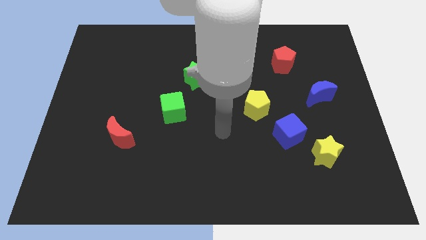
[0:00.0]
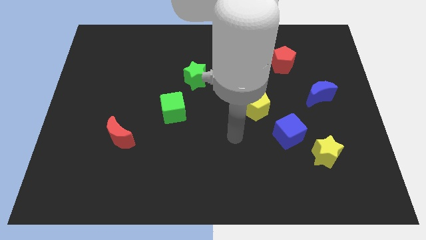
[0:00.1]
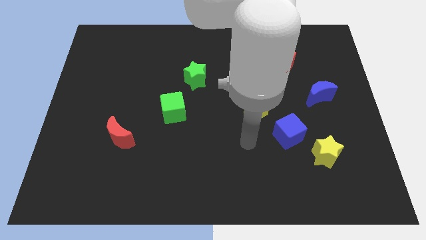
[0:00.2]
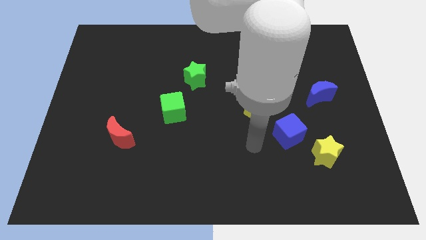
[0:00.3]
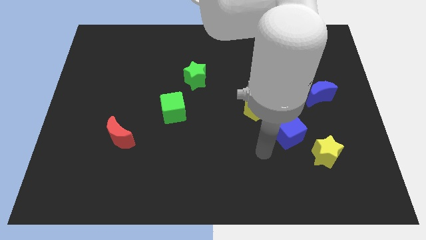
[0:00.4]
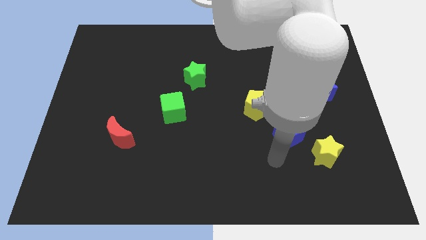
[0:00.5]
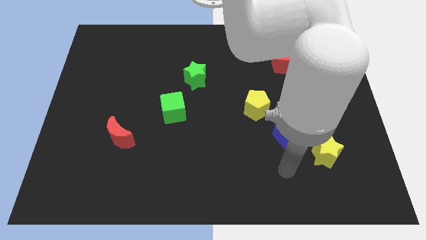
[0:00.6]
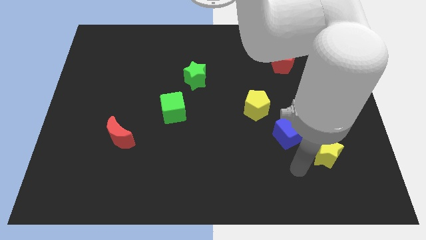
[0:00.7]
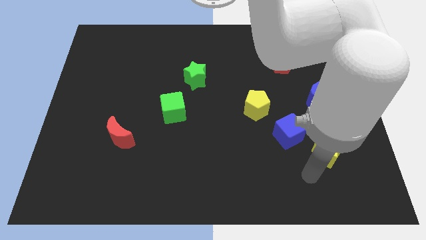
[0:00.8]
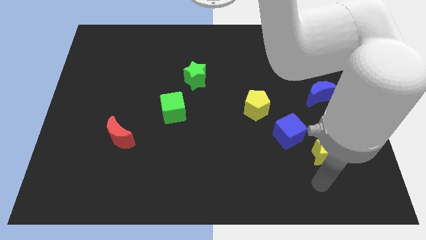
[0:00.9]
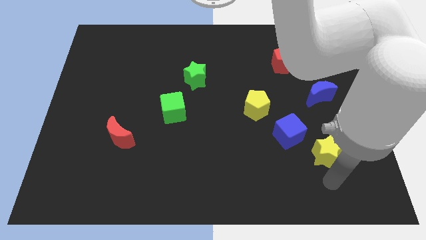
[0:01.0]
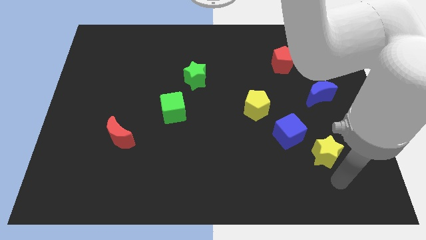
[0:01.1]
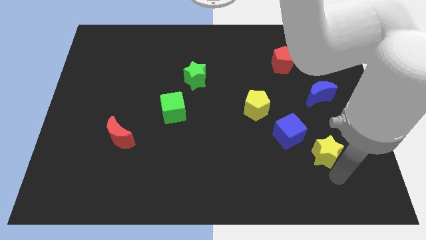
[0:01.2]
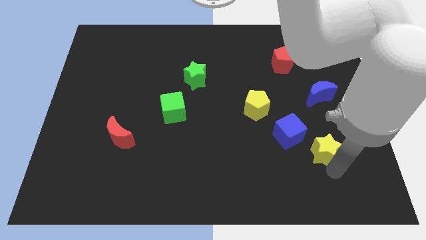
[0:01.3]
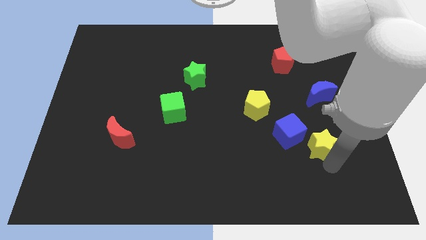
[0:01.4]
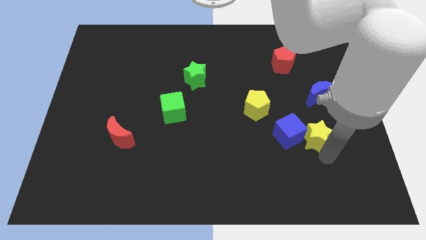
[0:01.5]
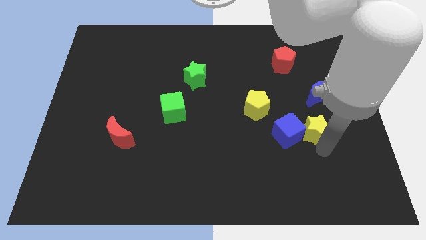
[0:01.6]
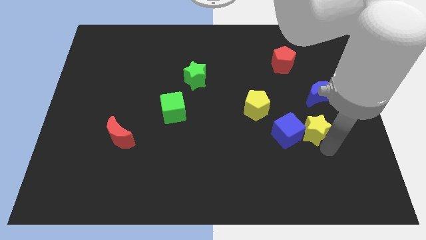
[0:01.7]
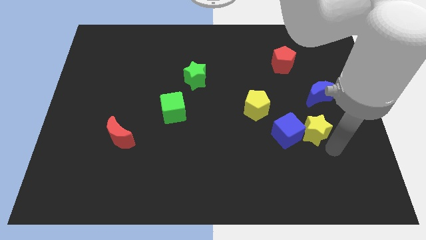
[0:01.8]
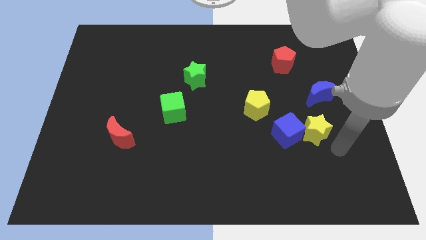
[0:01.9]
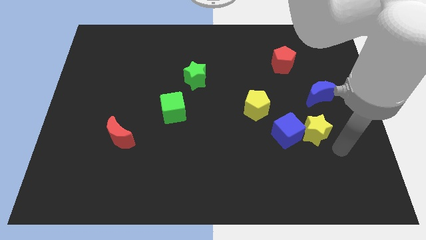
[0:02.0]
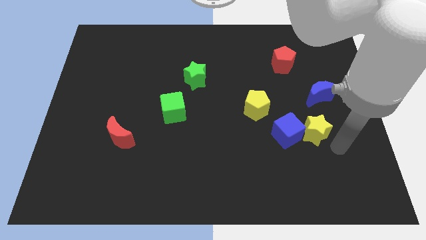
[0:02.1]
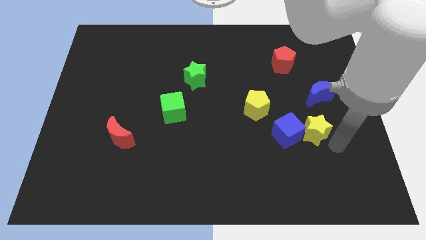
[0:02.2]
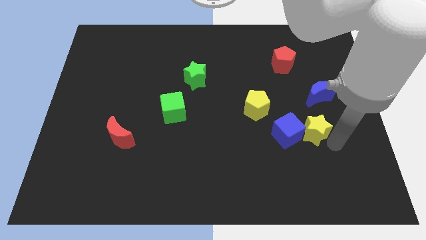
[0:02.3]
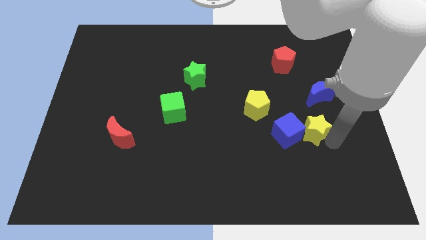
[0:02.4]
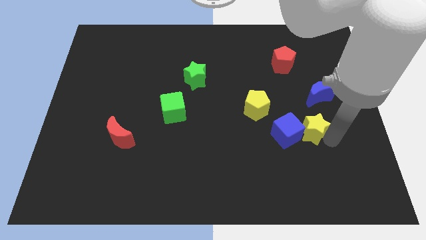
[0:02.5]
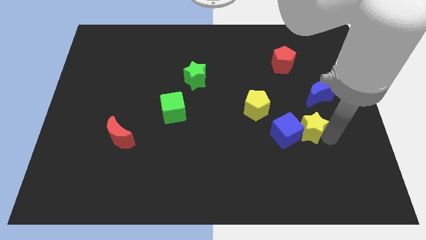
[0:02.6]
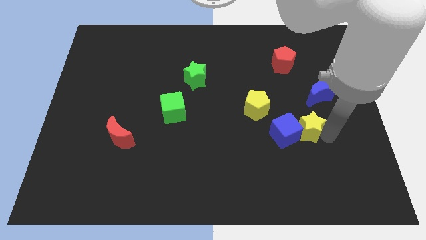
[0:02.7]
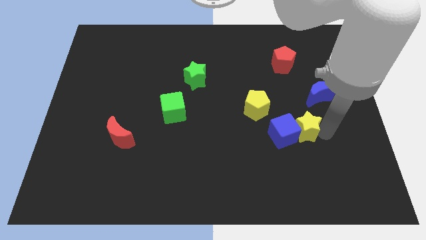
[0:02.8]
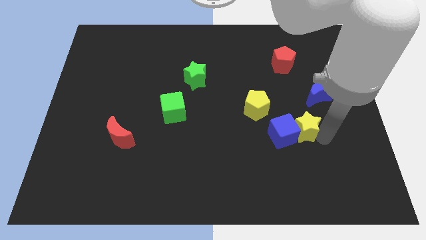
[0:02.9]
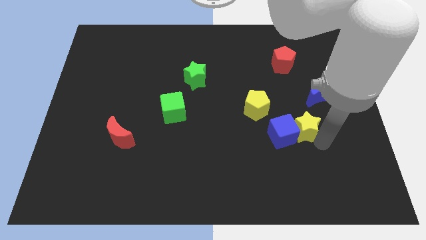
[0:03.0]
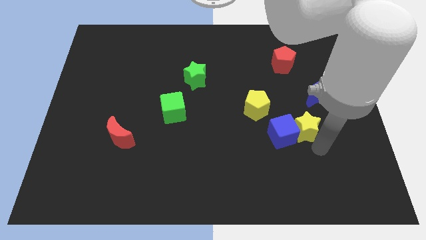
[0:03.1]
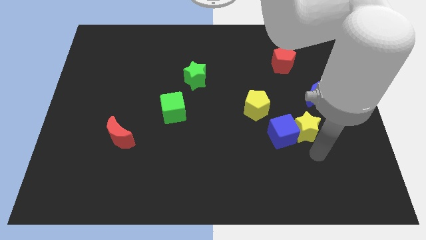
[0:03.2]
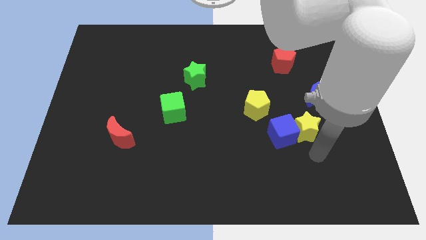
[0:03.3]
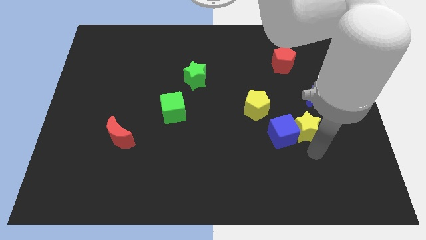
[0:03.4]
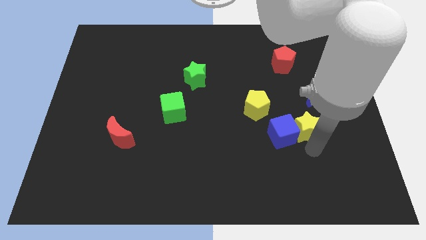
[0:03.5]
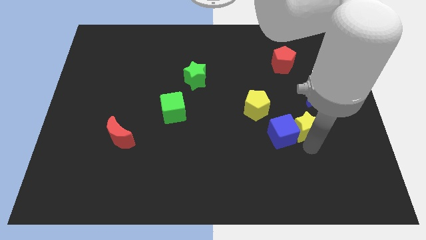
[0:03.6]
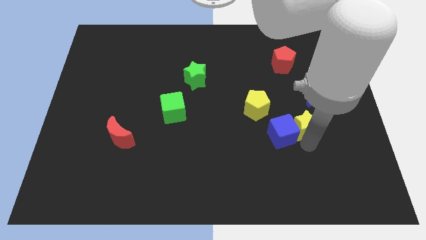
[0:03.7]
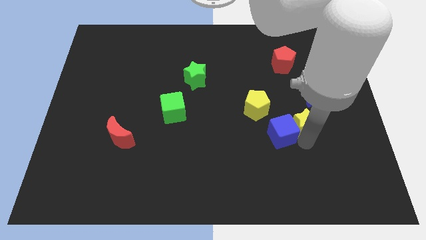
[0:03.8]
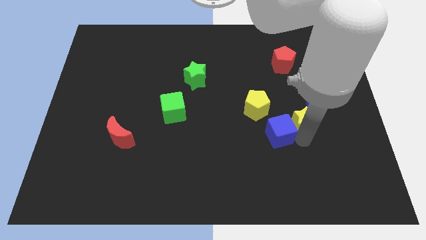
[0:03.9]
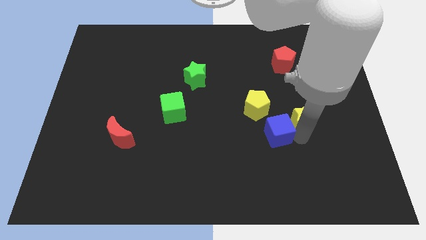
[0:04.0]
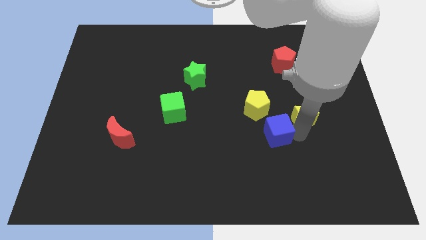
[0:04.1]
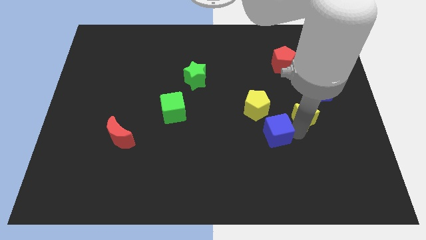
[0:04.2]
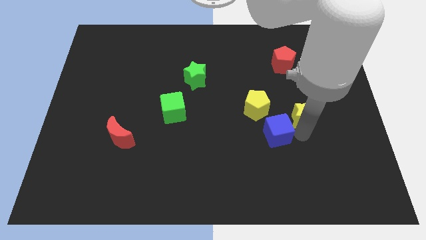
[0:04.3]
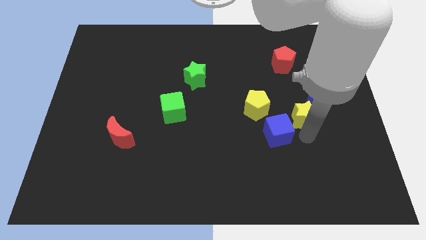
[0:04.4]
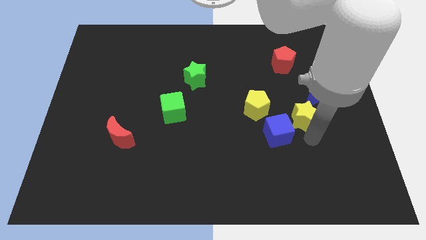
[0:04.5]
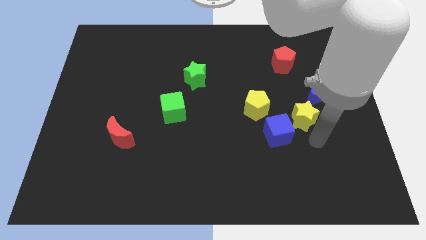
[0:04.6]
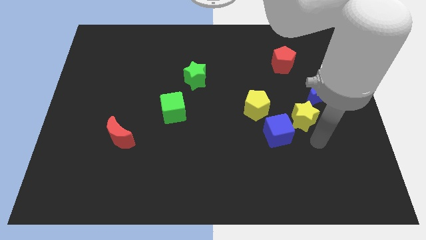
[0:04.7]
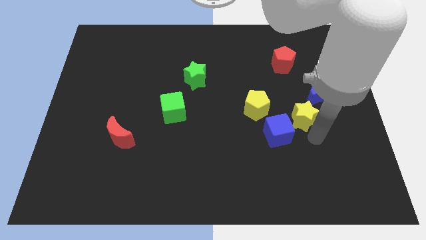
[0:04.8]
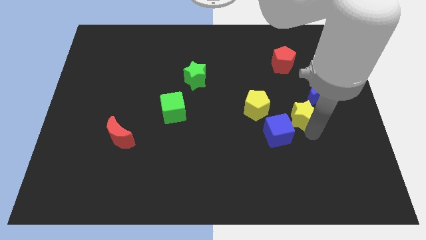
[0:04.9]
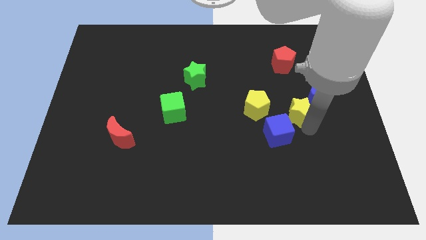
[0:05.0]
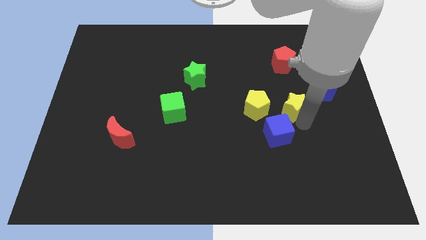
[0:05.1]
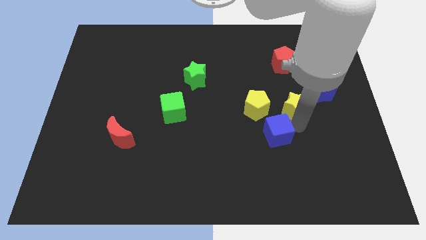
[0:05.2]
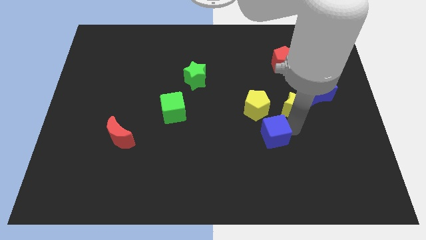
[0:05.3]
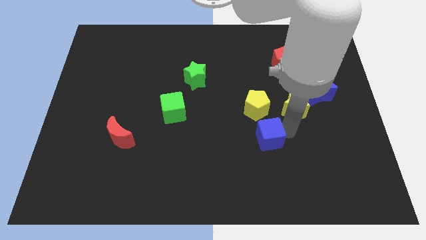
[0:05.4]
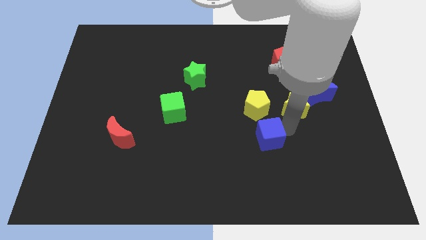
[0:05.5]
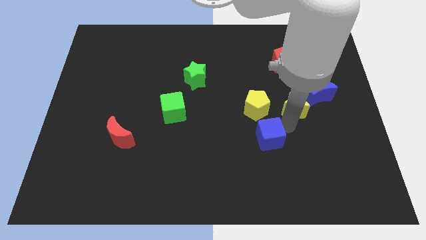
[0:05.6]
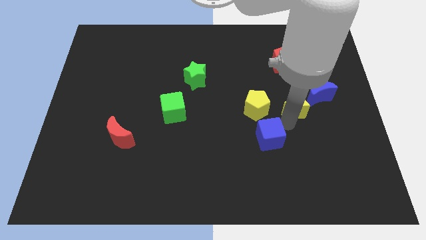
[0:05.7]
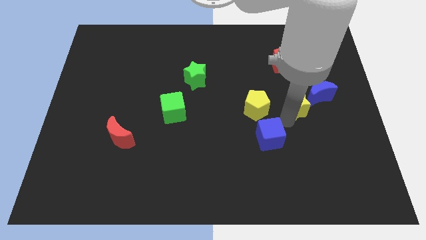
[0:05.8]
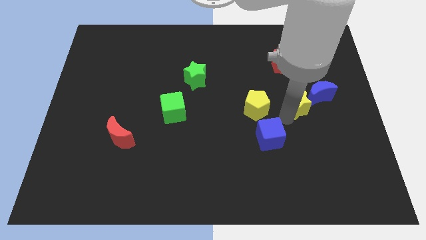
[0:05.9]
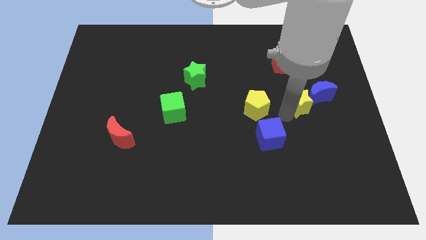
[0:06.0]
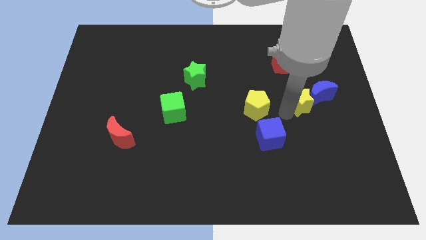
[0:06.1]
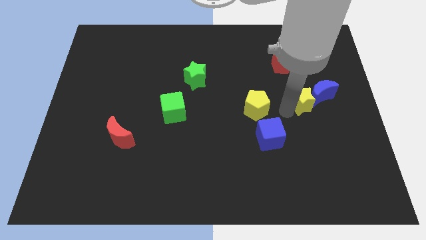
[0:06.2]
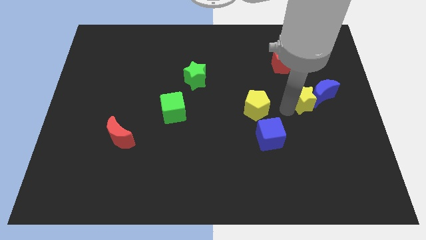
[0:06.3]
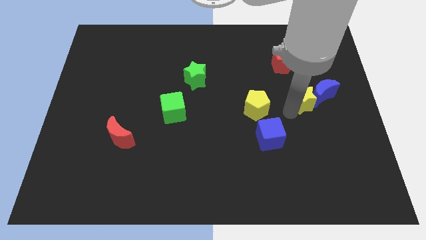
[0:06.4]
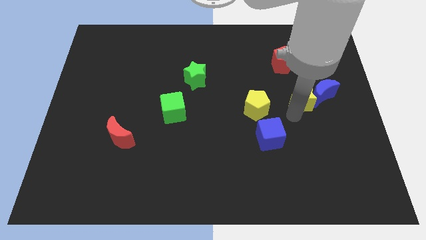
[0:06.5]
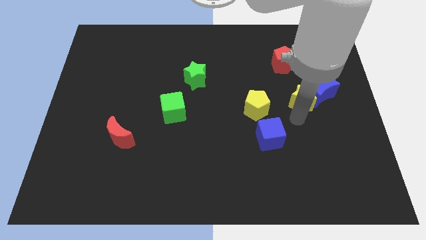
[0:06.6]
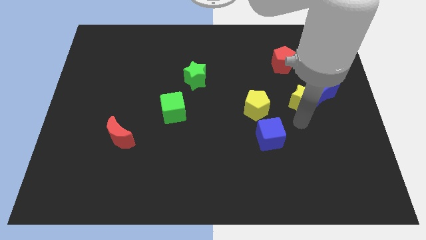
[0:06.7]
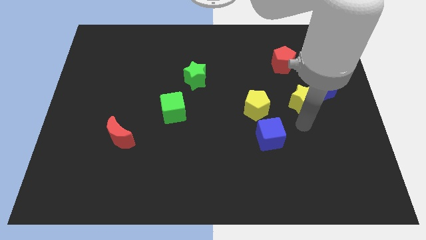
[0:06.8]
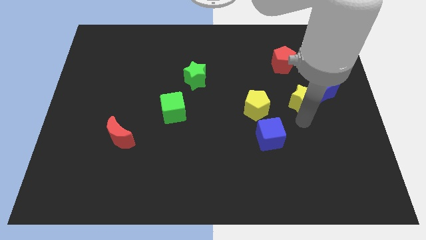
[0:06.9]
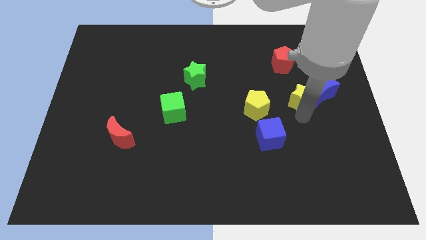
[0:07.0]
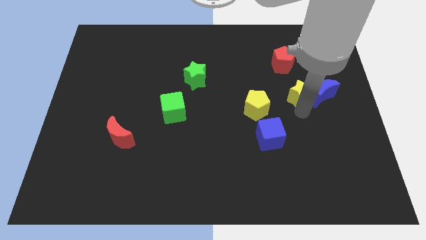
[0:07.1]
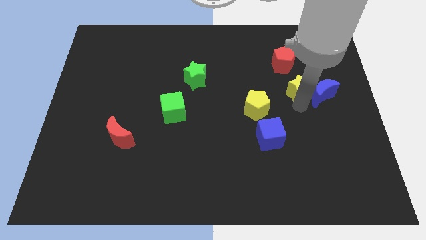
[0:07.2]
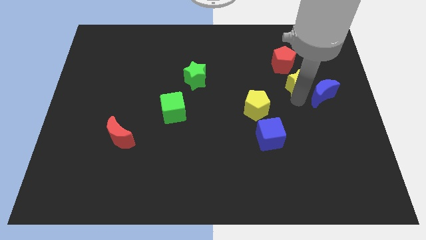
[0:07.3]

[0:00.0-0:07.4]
put the yellow star to the bottom right side of the red pentagon
